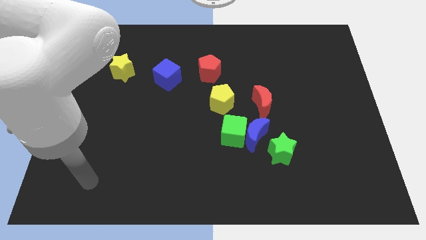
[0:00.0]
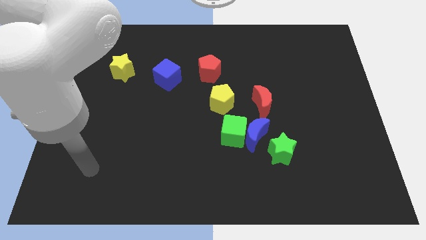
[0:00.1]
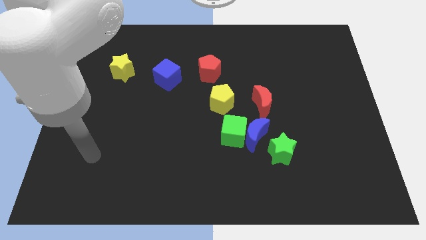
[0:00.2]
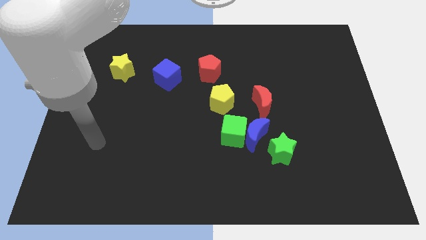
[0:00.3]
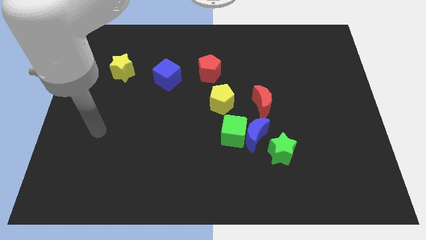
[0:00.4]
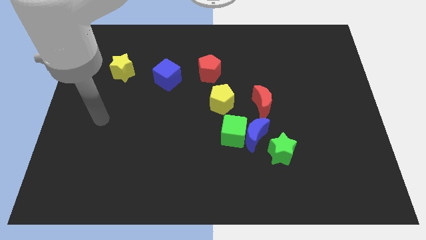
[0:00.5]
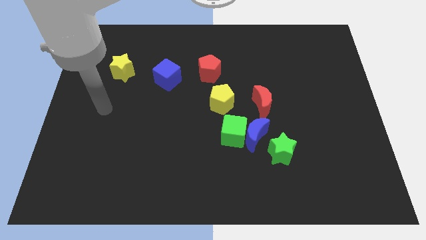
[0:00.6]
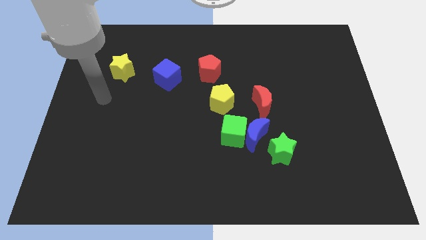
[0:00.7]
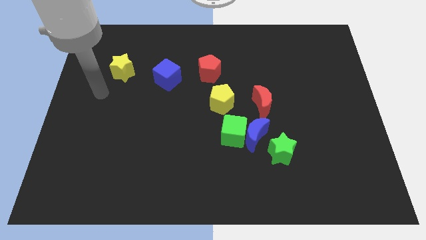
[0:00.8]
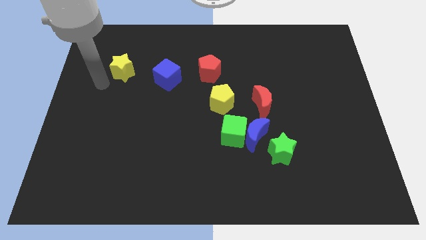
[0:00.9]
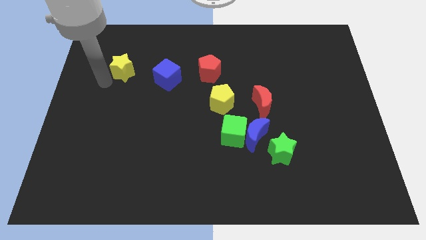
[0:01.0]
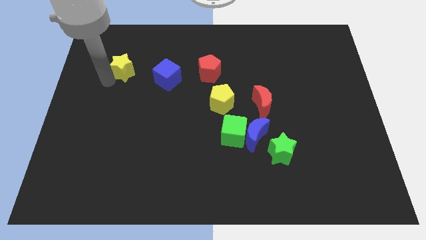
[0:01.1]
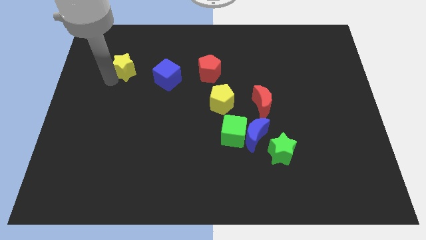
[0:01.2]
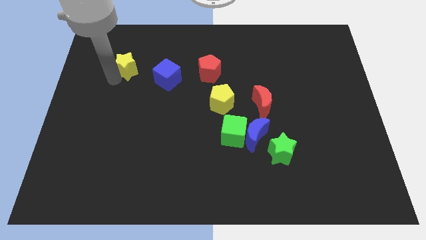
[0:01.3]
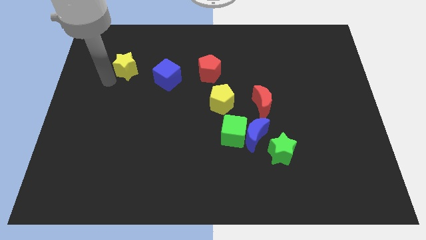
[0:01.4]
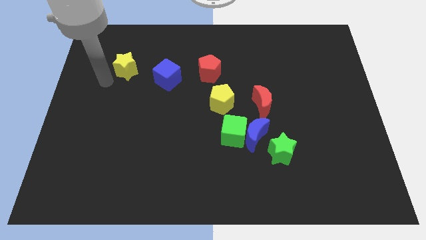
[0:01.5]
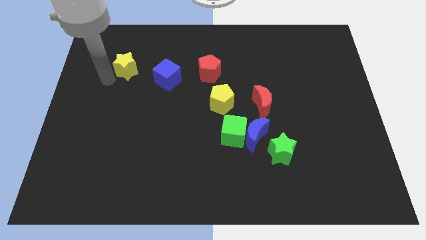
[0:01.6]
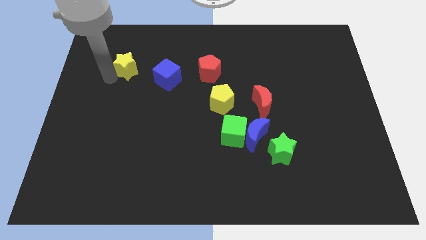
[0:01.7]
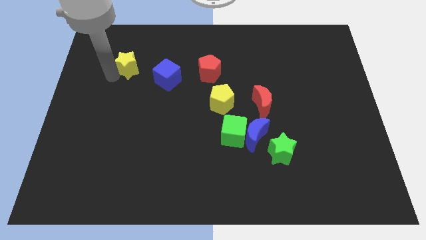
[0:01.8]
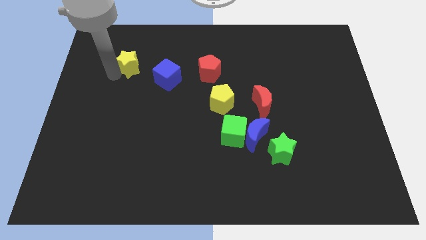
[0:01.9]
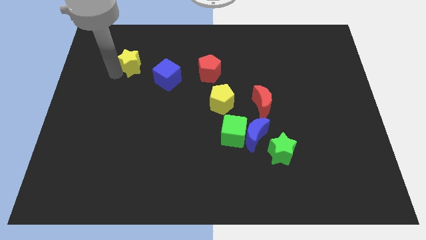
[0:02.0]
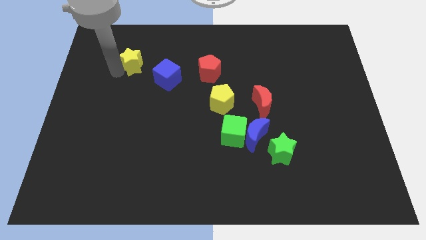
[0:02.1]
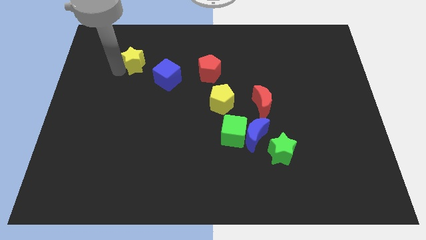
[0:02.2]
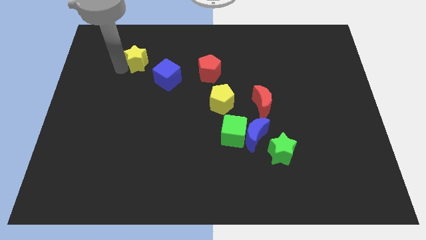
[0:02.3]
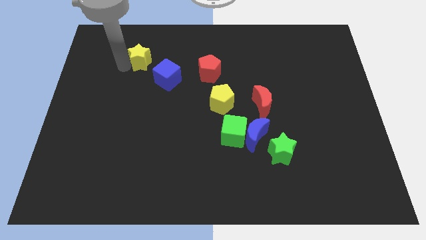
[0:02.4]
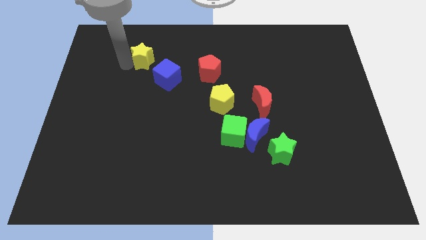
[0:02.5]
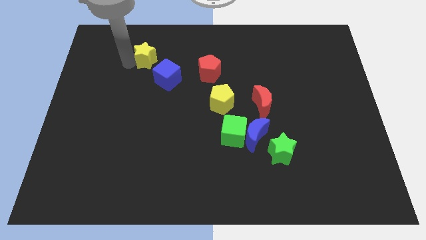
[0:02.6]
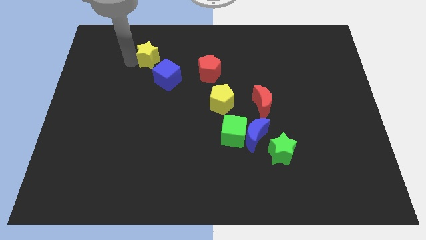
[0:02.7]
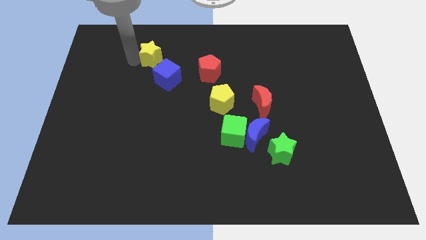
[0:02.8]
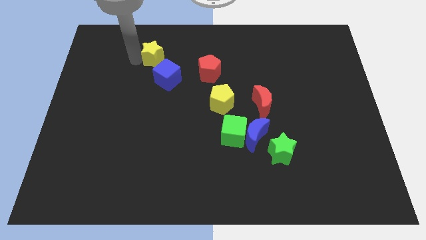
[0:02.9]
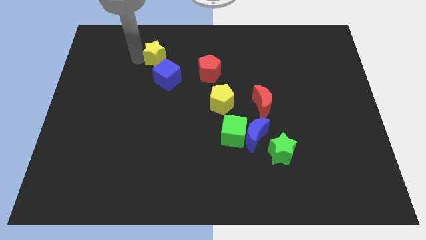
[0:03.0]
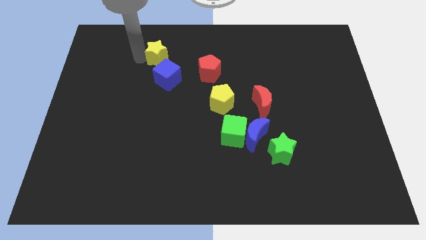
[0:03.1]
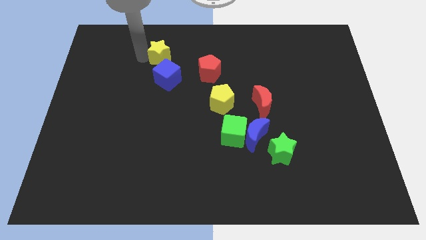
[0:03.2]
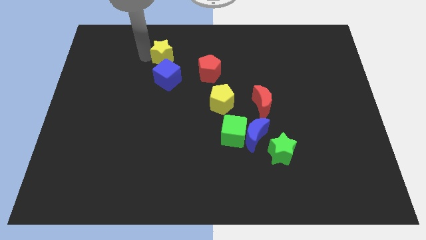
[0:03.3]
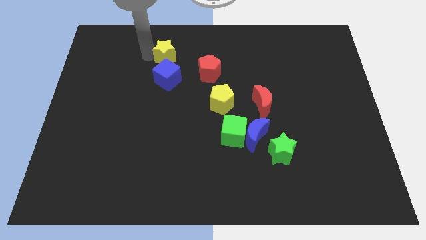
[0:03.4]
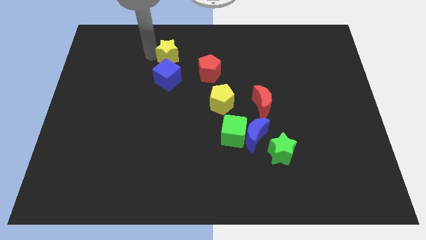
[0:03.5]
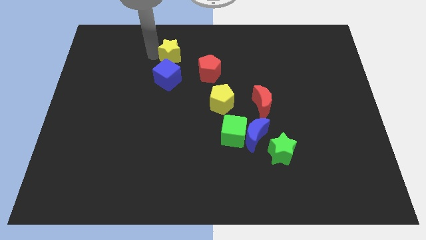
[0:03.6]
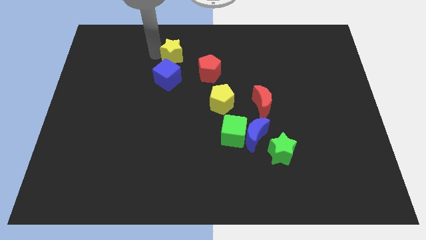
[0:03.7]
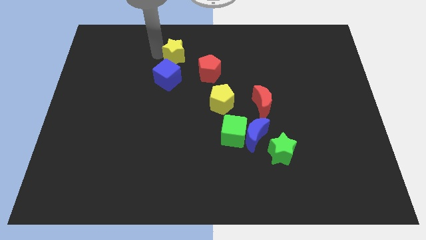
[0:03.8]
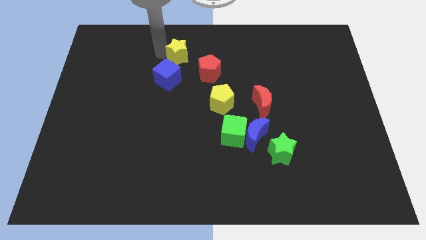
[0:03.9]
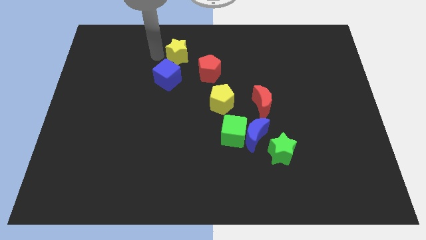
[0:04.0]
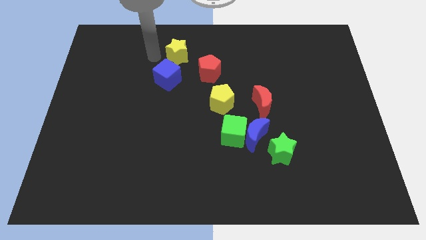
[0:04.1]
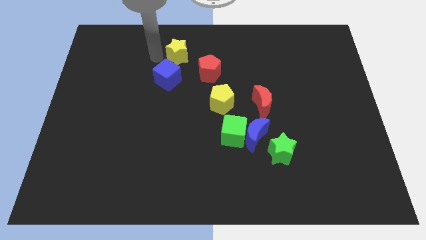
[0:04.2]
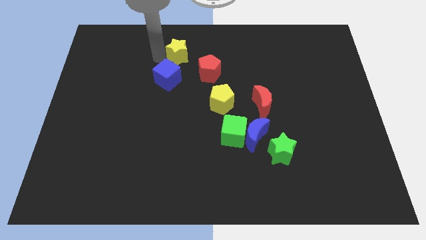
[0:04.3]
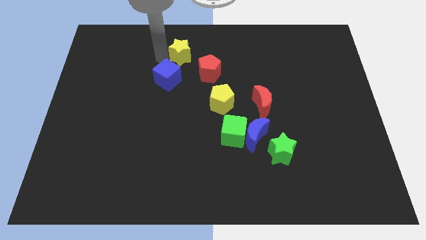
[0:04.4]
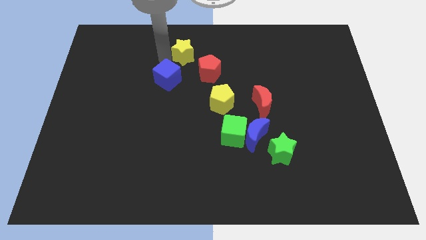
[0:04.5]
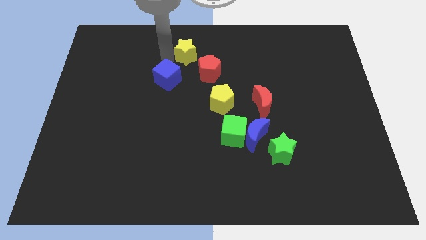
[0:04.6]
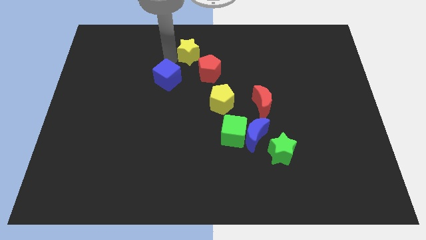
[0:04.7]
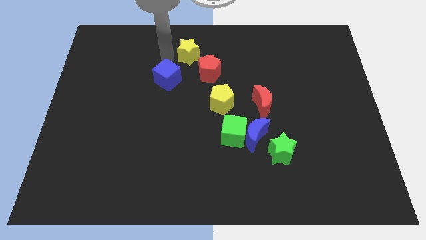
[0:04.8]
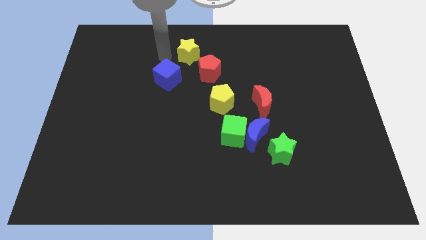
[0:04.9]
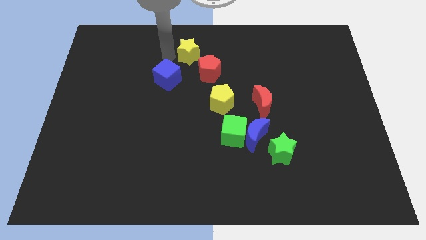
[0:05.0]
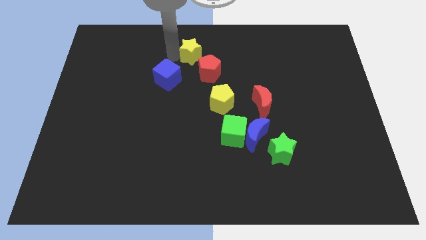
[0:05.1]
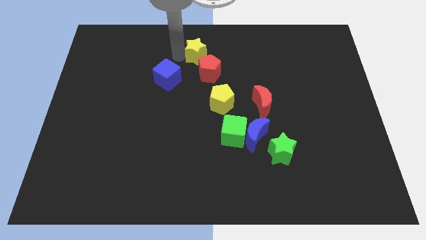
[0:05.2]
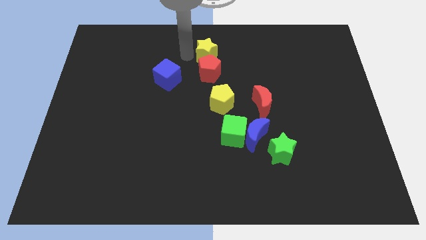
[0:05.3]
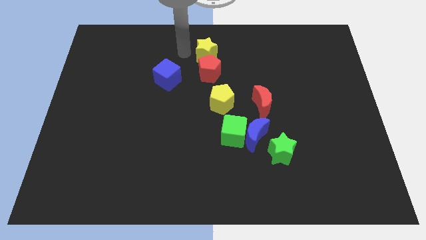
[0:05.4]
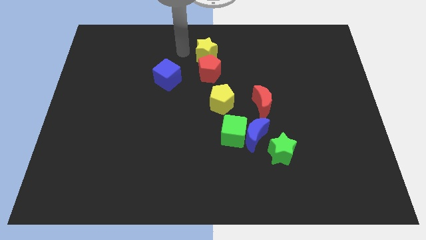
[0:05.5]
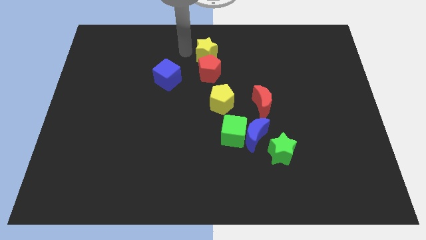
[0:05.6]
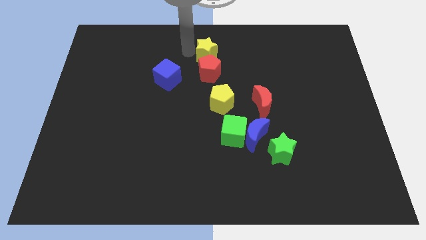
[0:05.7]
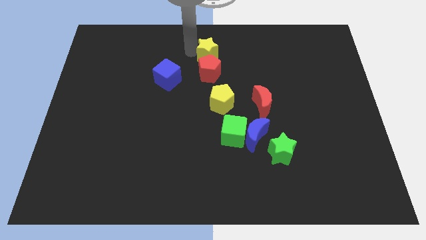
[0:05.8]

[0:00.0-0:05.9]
move the yellow star to the top right of the red pentagon

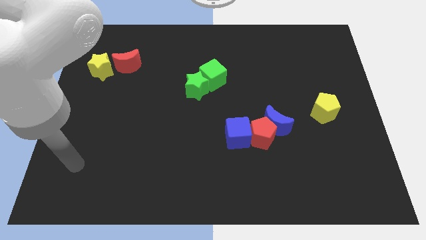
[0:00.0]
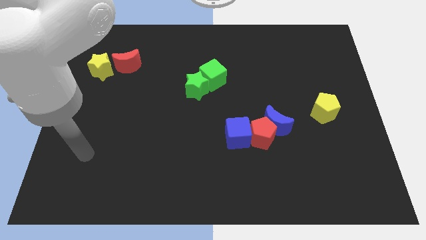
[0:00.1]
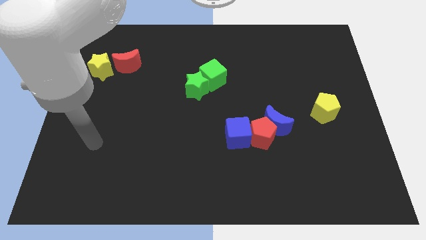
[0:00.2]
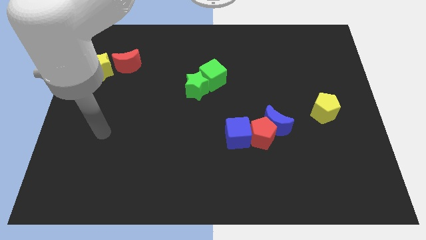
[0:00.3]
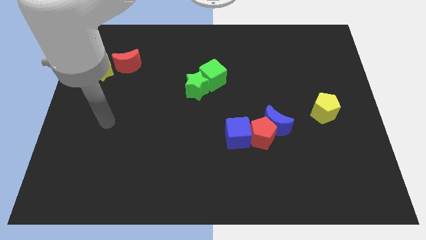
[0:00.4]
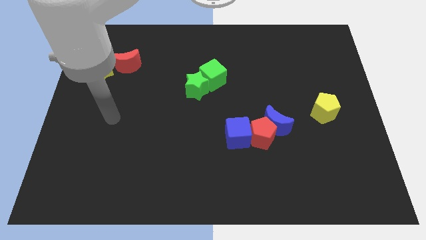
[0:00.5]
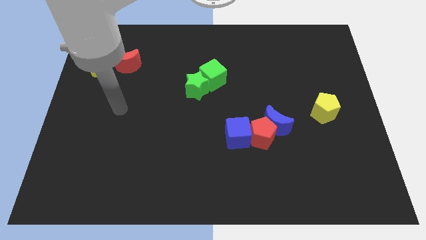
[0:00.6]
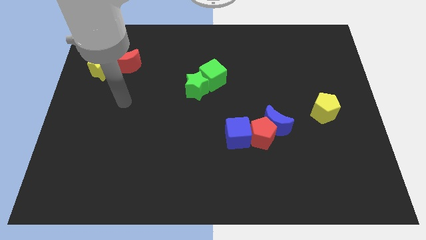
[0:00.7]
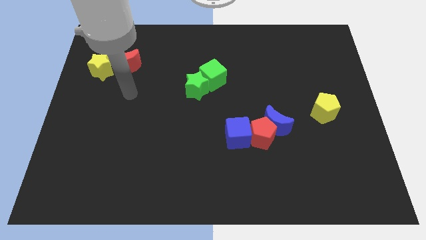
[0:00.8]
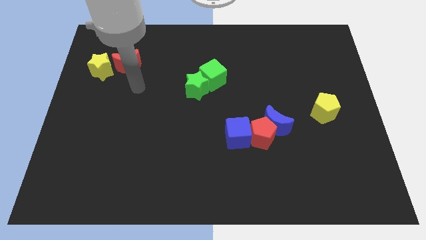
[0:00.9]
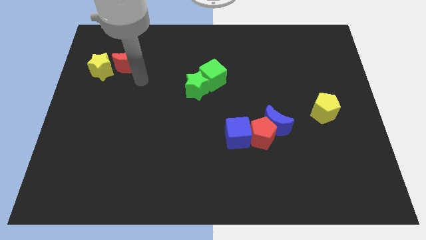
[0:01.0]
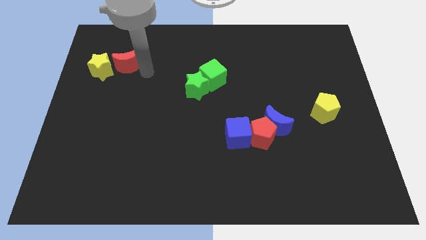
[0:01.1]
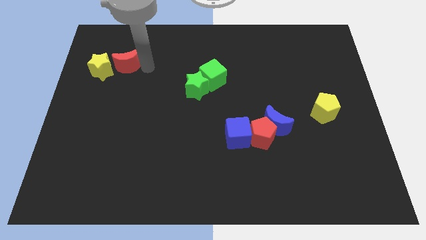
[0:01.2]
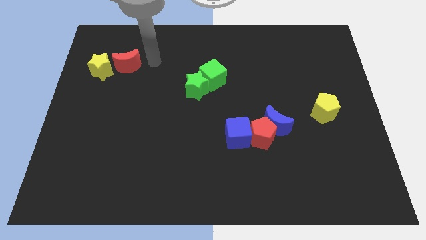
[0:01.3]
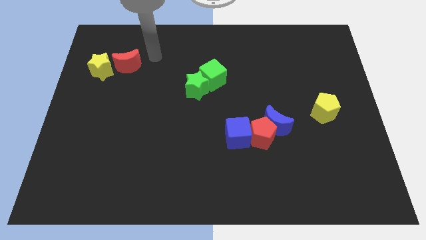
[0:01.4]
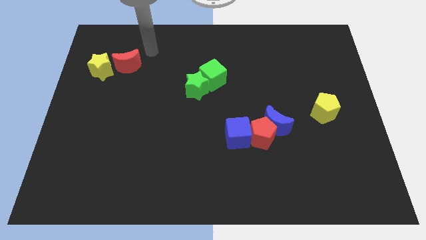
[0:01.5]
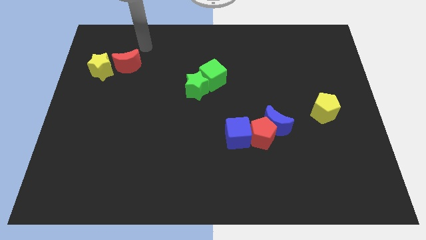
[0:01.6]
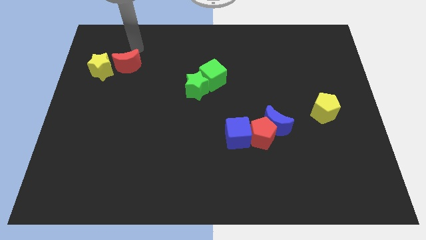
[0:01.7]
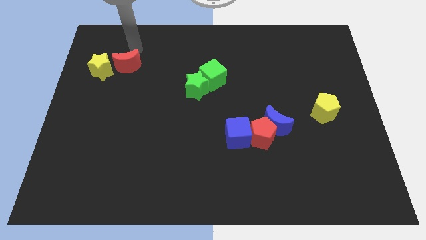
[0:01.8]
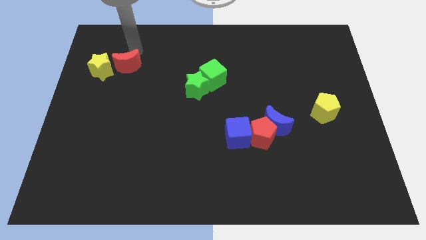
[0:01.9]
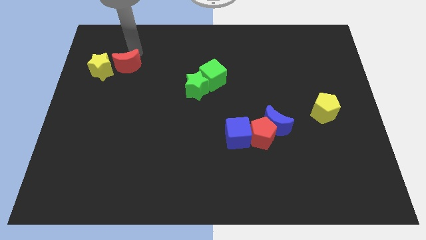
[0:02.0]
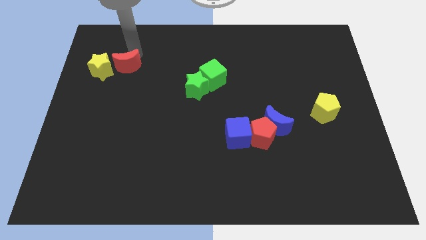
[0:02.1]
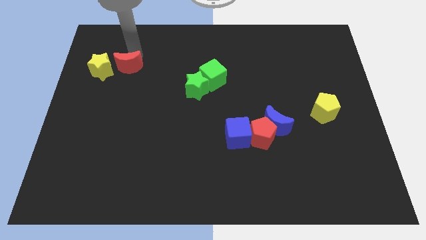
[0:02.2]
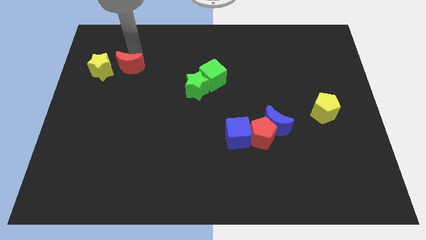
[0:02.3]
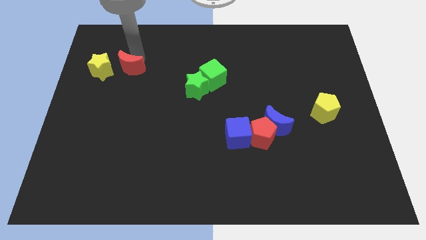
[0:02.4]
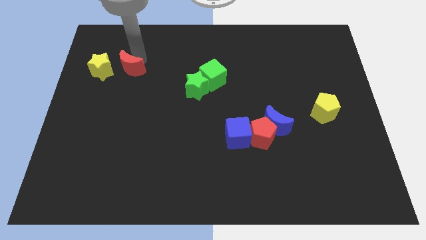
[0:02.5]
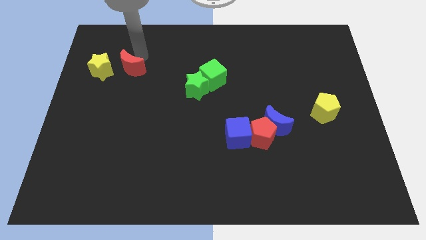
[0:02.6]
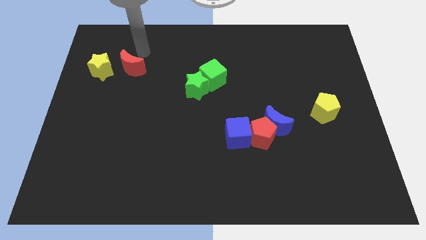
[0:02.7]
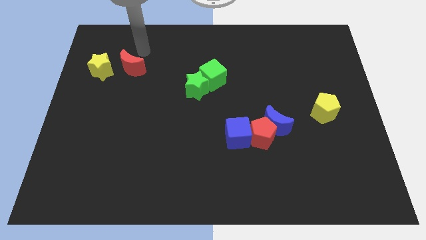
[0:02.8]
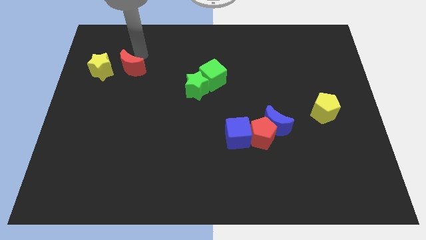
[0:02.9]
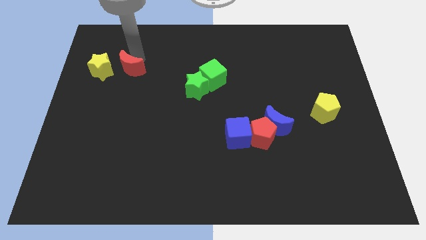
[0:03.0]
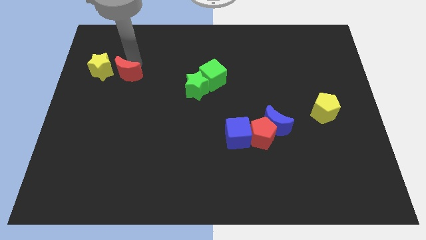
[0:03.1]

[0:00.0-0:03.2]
push the red moon diagonally down and to the right of the yellow star
